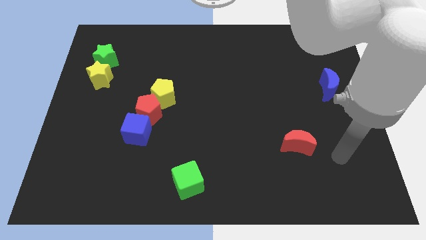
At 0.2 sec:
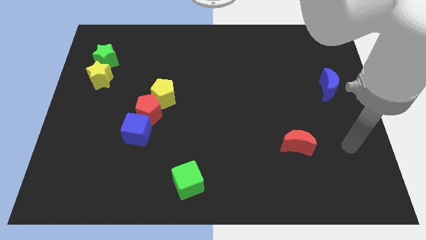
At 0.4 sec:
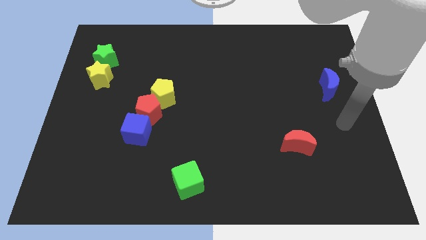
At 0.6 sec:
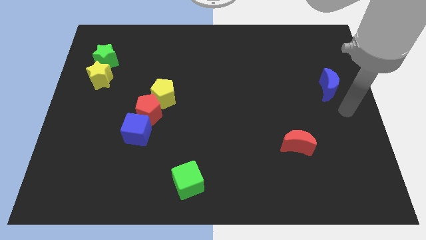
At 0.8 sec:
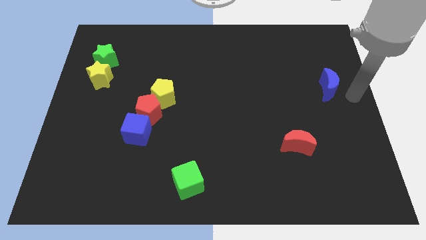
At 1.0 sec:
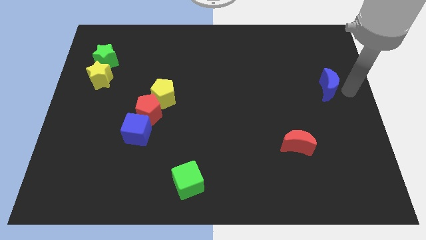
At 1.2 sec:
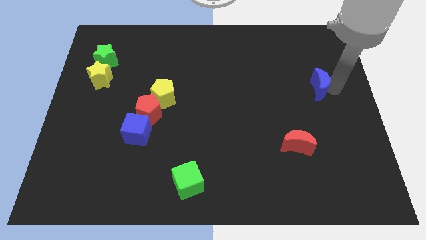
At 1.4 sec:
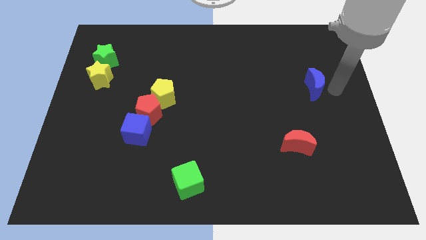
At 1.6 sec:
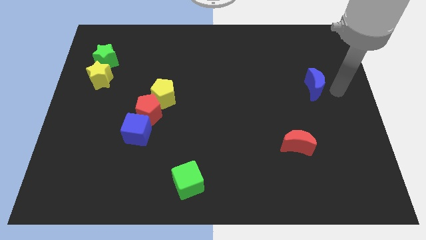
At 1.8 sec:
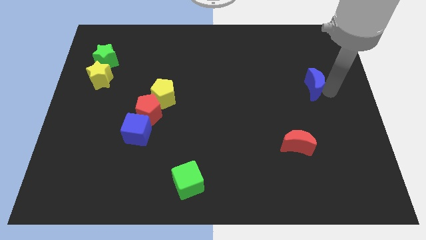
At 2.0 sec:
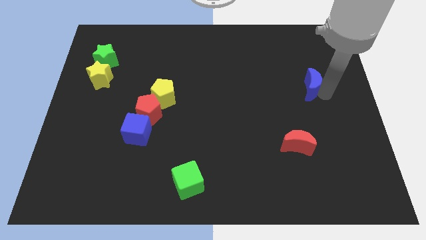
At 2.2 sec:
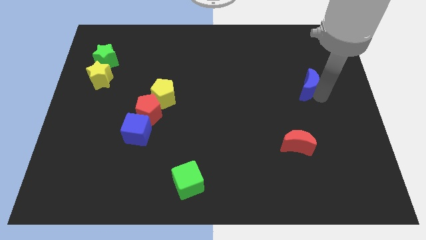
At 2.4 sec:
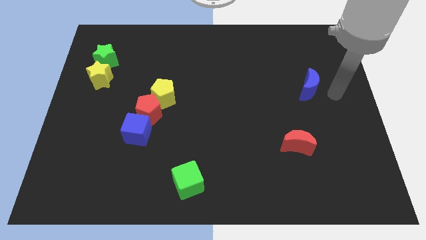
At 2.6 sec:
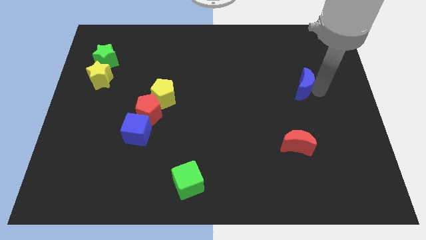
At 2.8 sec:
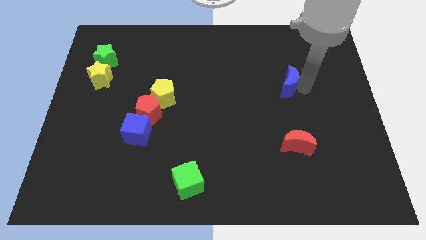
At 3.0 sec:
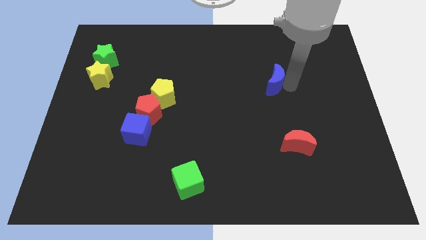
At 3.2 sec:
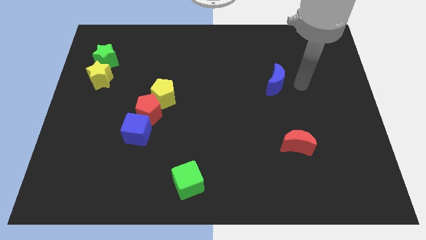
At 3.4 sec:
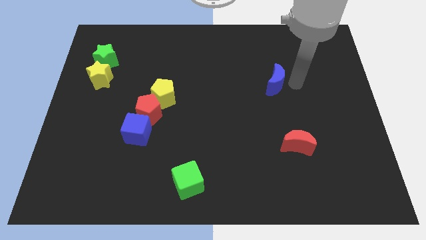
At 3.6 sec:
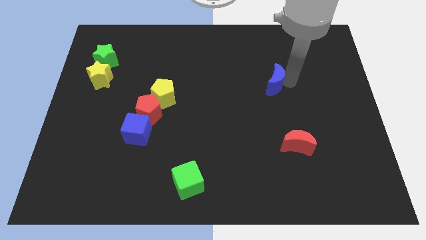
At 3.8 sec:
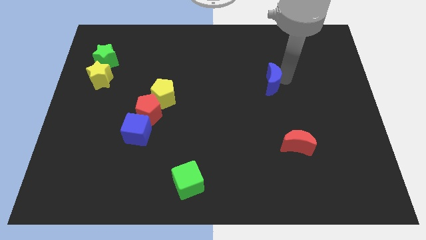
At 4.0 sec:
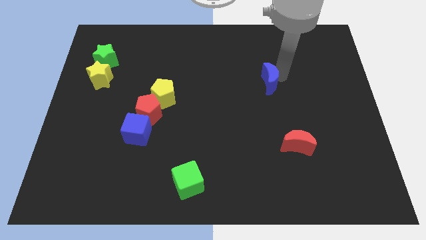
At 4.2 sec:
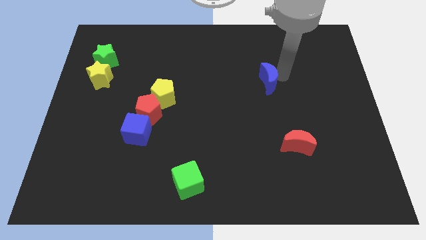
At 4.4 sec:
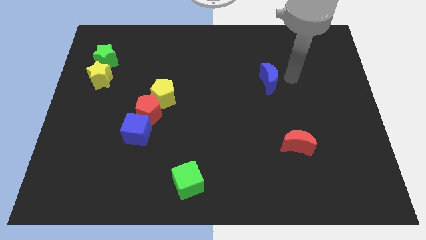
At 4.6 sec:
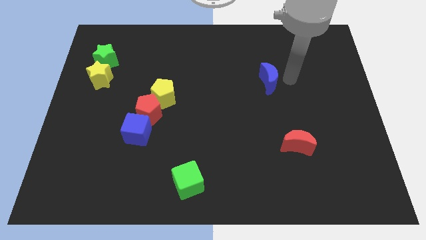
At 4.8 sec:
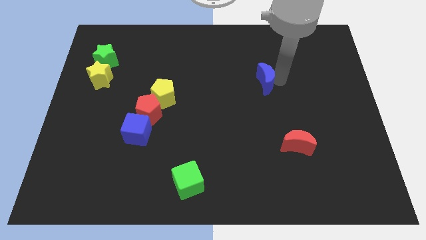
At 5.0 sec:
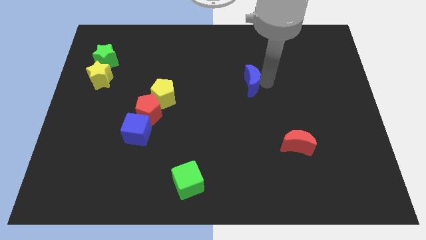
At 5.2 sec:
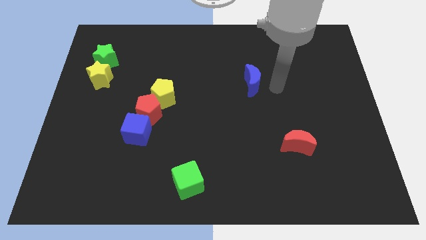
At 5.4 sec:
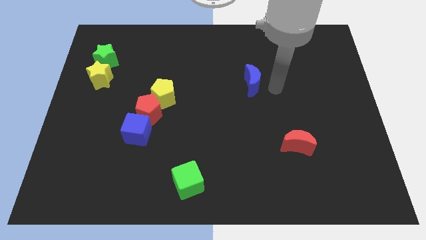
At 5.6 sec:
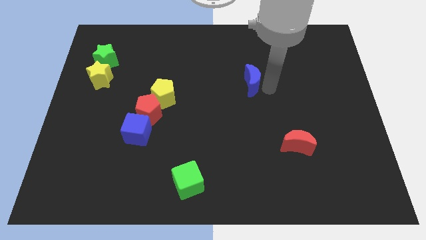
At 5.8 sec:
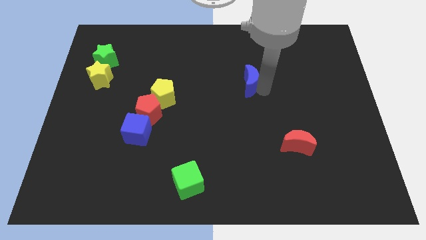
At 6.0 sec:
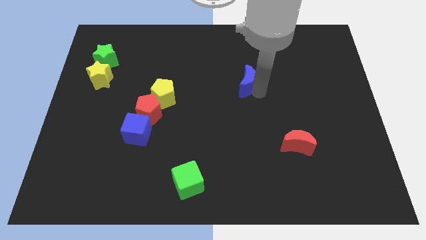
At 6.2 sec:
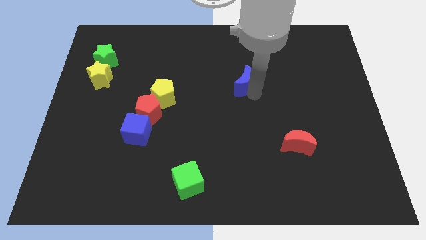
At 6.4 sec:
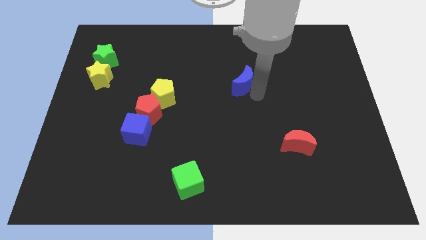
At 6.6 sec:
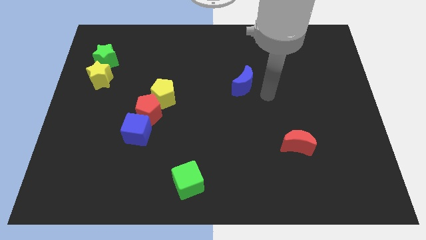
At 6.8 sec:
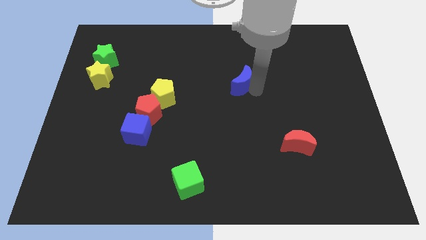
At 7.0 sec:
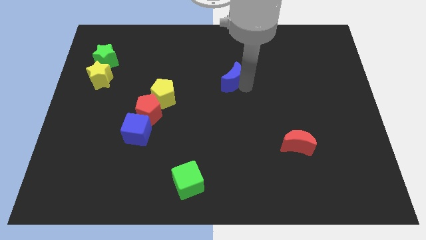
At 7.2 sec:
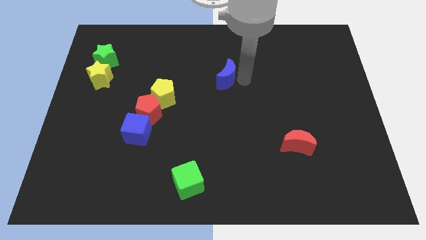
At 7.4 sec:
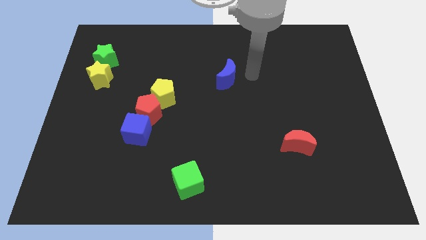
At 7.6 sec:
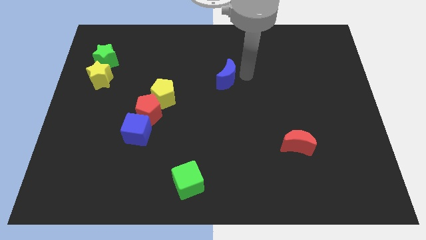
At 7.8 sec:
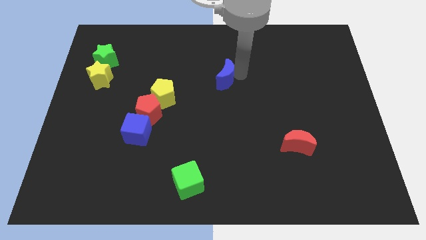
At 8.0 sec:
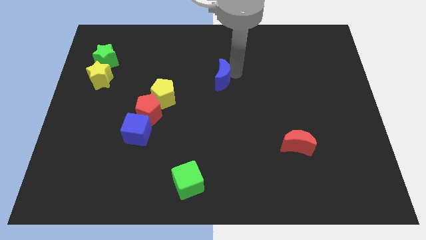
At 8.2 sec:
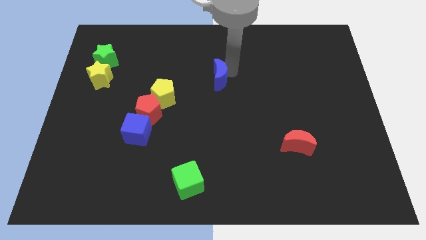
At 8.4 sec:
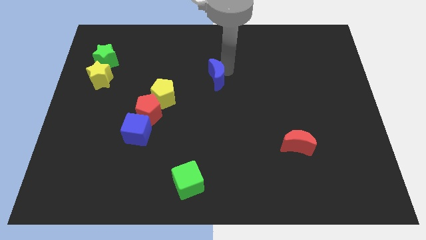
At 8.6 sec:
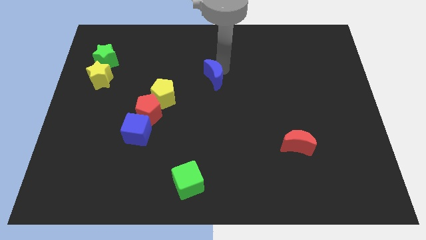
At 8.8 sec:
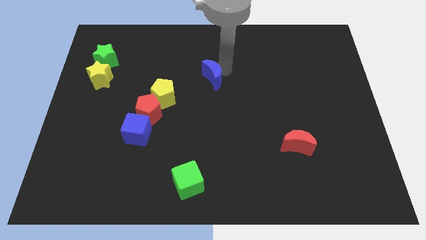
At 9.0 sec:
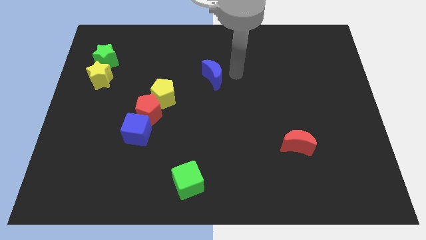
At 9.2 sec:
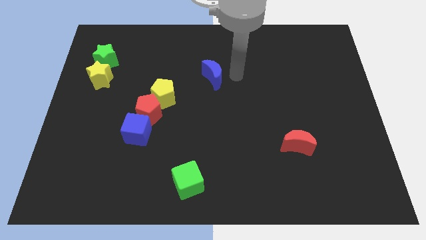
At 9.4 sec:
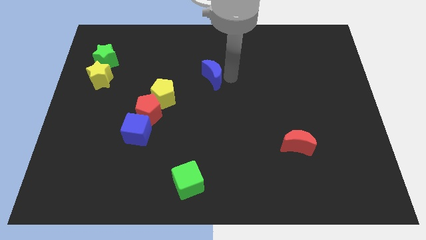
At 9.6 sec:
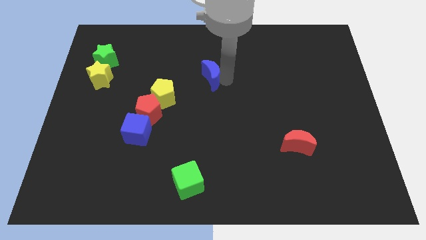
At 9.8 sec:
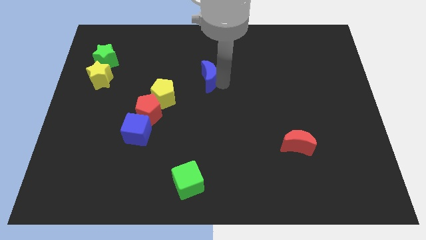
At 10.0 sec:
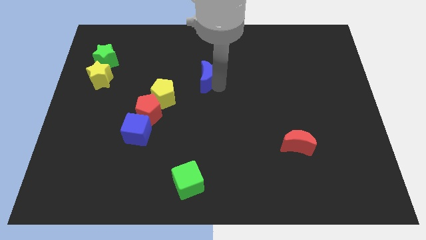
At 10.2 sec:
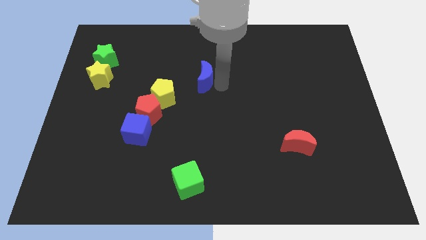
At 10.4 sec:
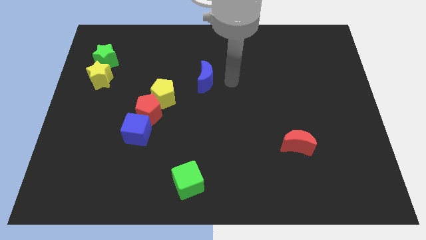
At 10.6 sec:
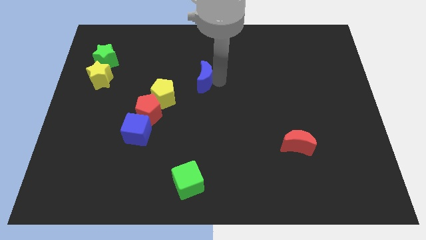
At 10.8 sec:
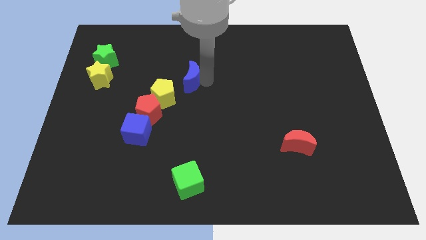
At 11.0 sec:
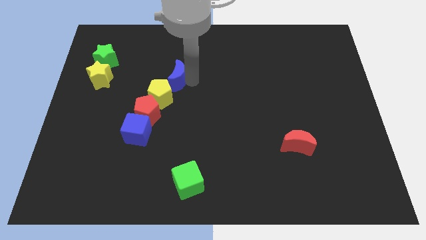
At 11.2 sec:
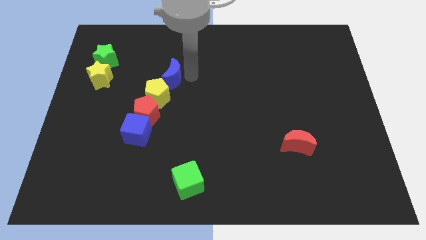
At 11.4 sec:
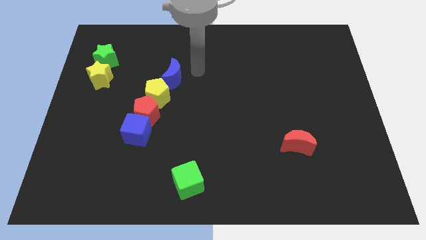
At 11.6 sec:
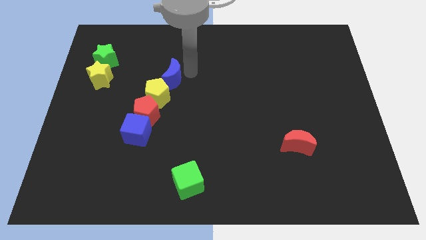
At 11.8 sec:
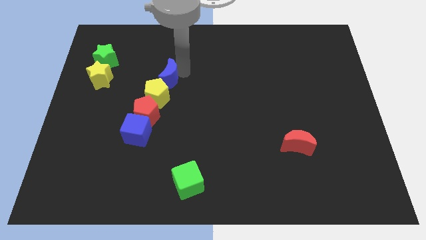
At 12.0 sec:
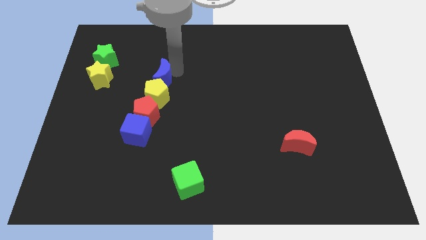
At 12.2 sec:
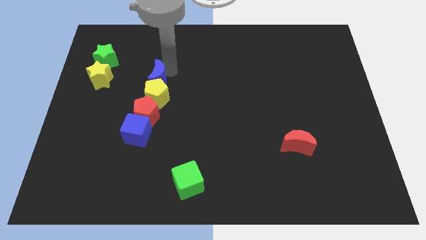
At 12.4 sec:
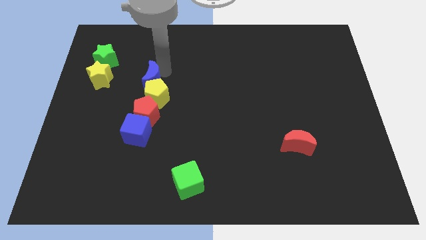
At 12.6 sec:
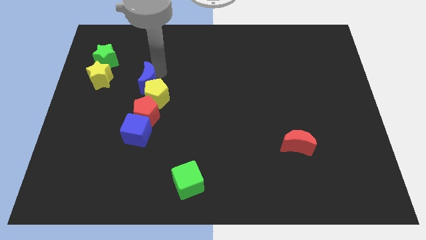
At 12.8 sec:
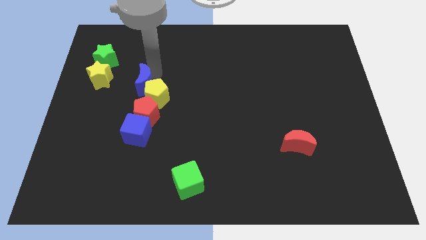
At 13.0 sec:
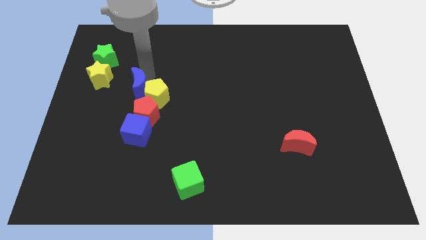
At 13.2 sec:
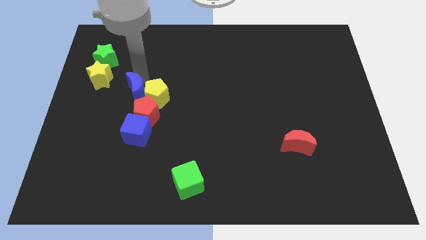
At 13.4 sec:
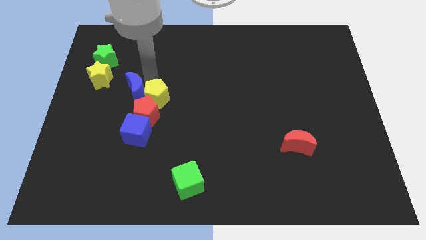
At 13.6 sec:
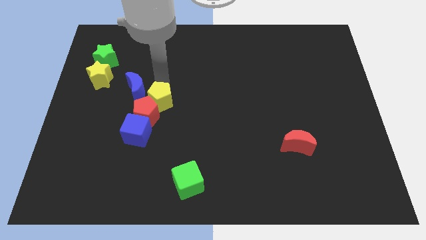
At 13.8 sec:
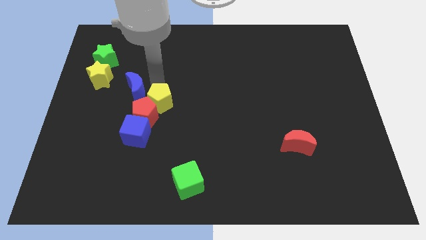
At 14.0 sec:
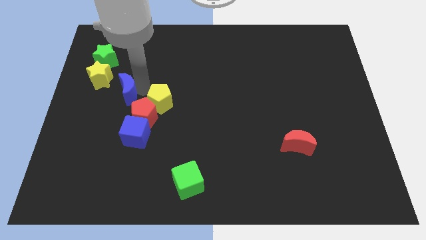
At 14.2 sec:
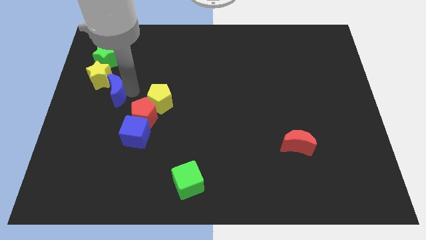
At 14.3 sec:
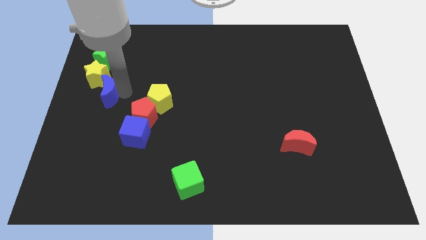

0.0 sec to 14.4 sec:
slide the blue moon to the left side
